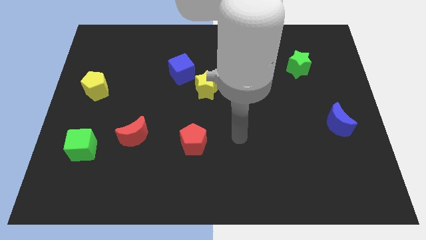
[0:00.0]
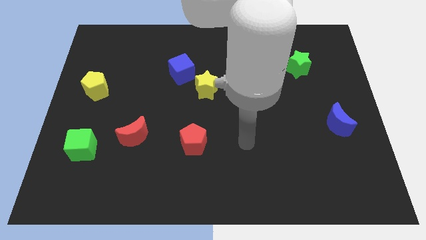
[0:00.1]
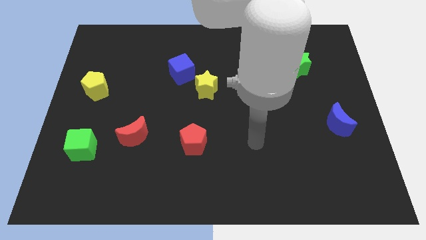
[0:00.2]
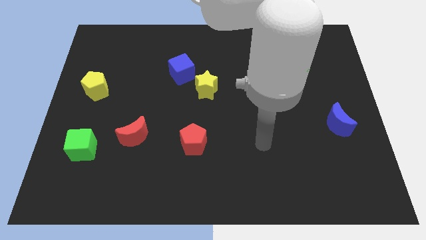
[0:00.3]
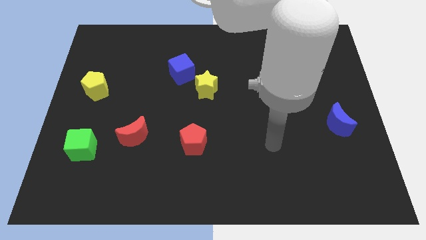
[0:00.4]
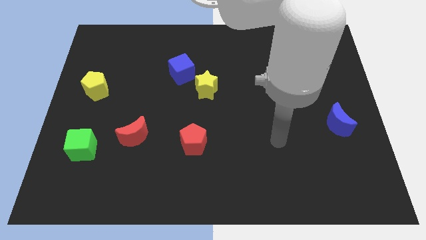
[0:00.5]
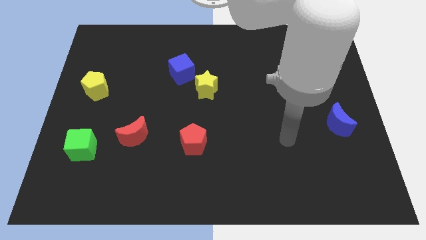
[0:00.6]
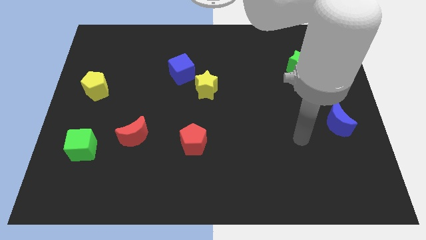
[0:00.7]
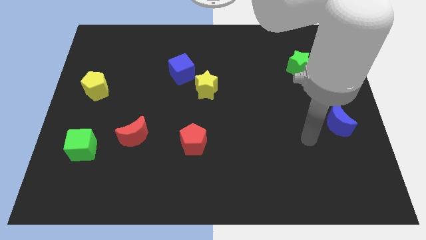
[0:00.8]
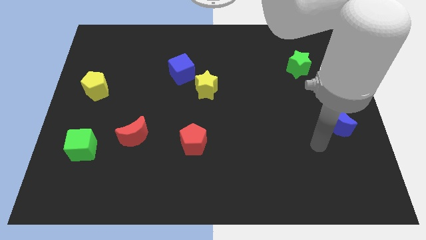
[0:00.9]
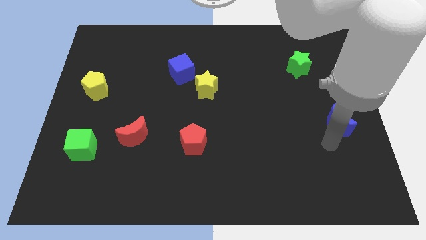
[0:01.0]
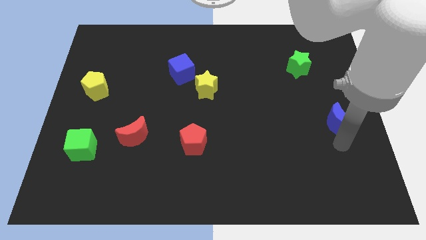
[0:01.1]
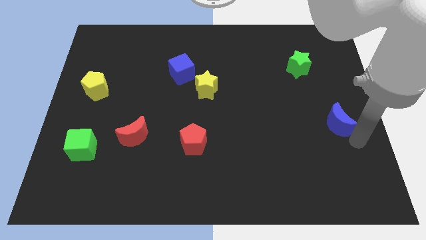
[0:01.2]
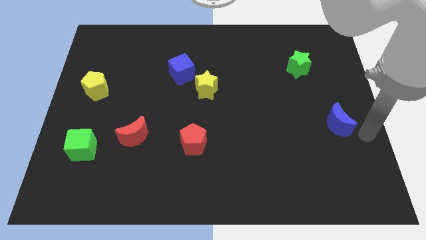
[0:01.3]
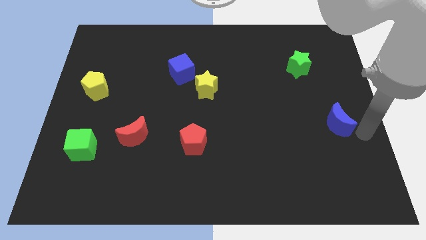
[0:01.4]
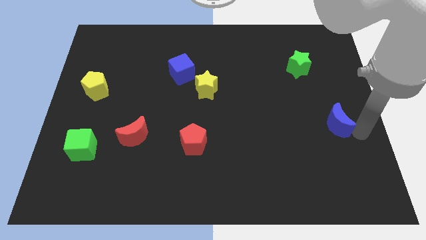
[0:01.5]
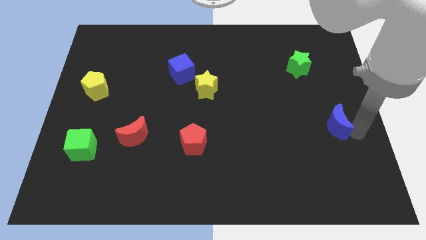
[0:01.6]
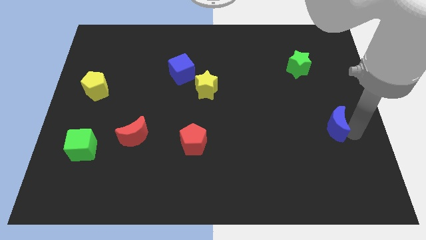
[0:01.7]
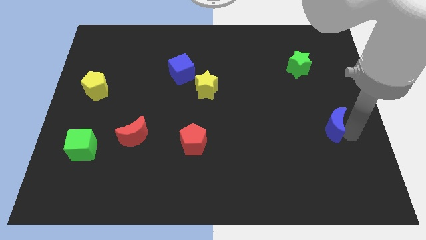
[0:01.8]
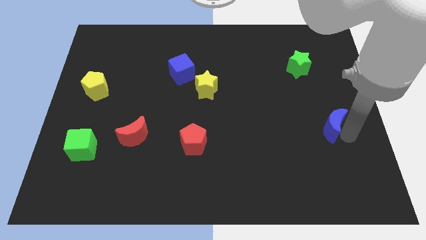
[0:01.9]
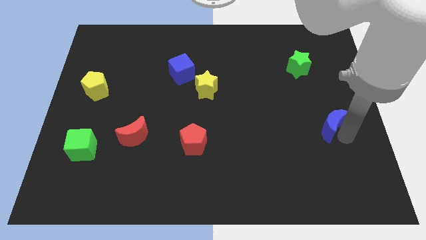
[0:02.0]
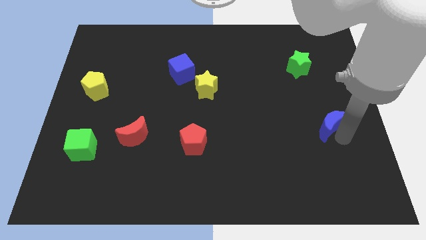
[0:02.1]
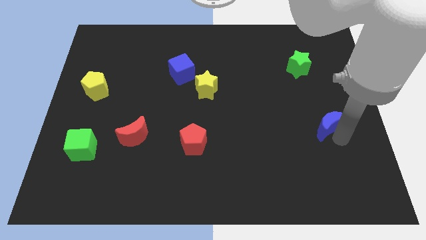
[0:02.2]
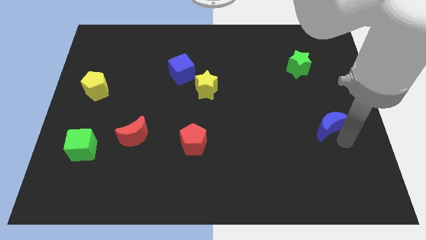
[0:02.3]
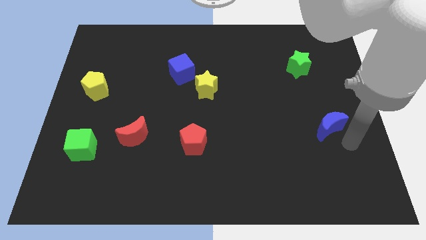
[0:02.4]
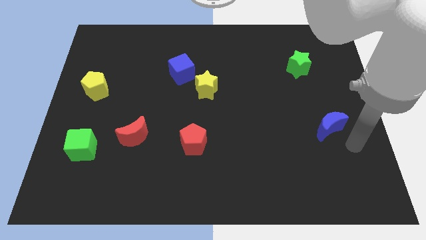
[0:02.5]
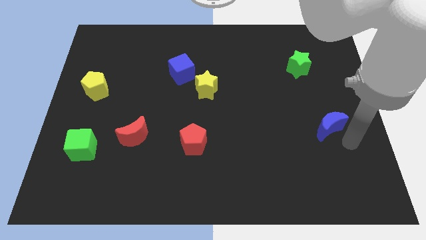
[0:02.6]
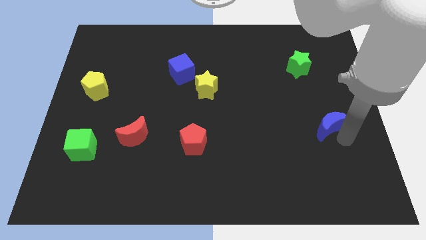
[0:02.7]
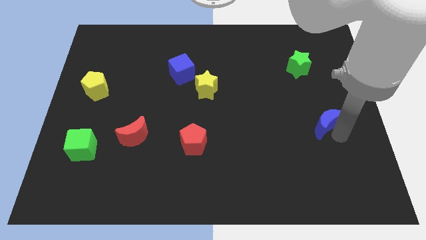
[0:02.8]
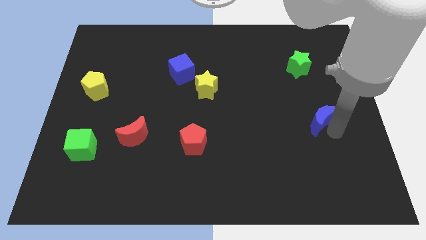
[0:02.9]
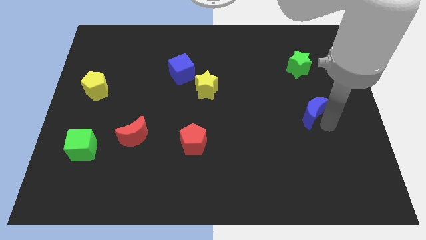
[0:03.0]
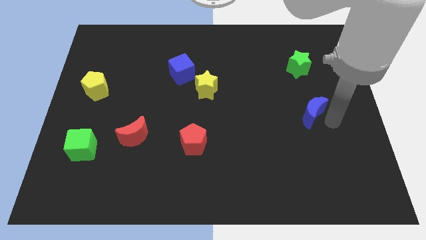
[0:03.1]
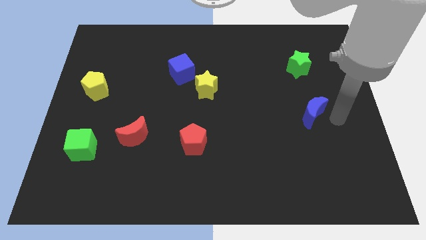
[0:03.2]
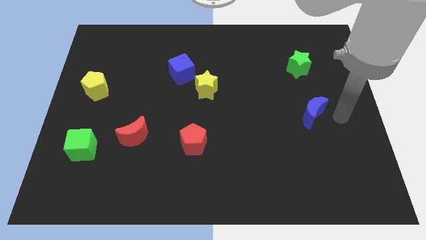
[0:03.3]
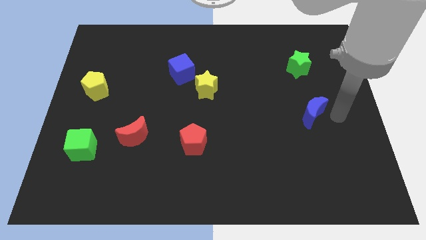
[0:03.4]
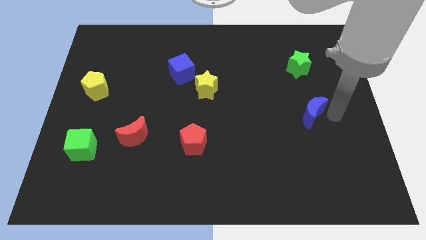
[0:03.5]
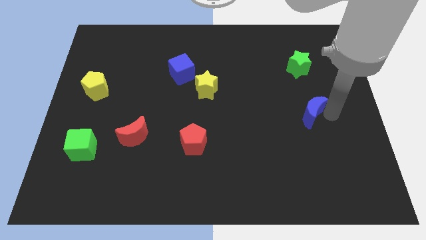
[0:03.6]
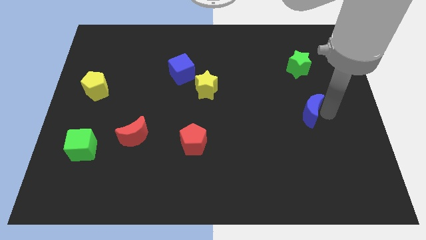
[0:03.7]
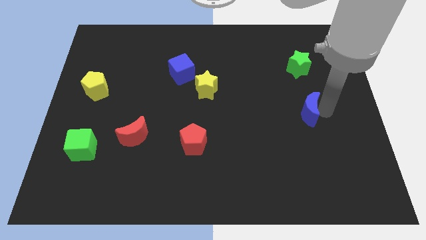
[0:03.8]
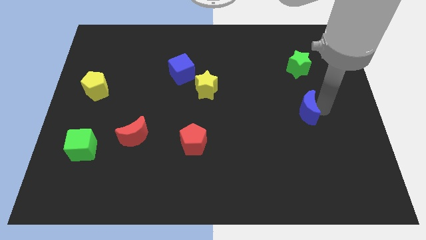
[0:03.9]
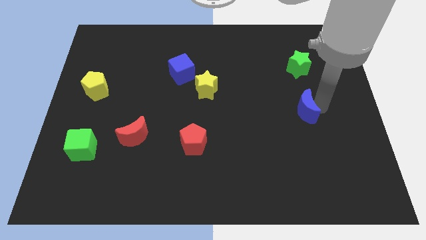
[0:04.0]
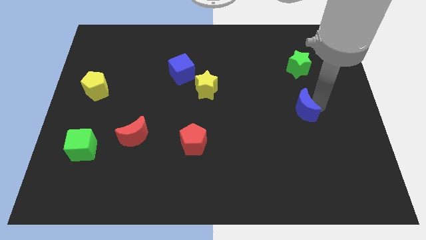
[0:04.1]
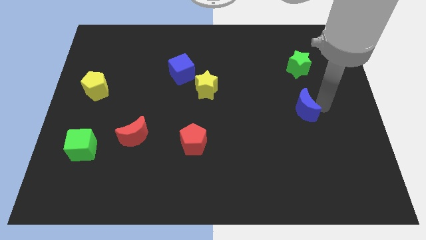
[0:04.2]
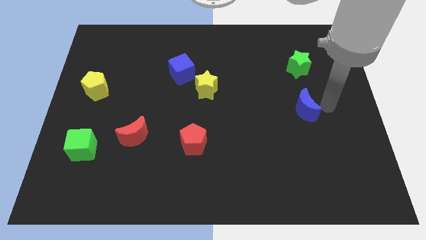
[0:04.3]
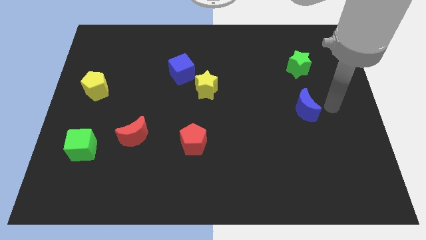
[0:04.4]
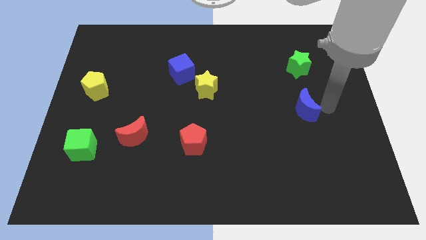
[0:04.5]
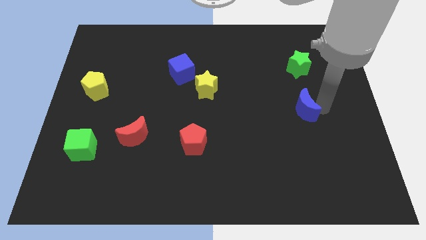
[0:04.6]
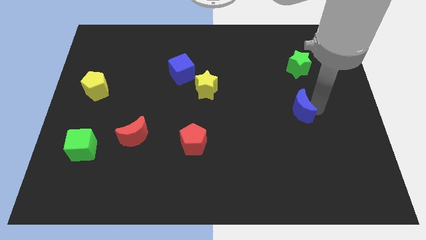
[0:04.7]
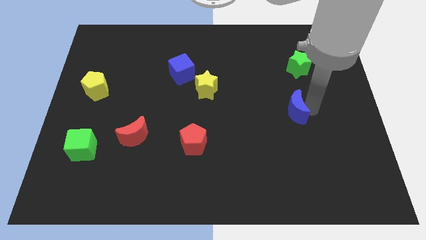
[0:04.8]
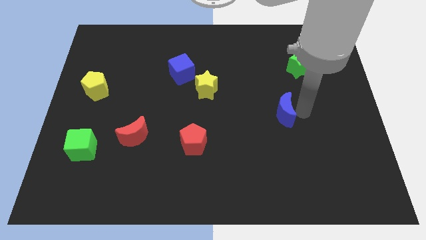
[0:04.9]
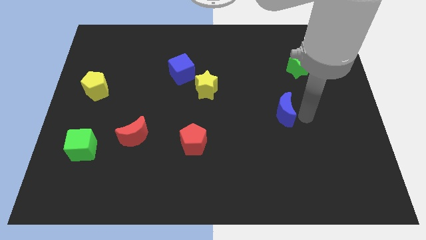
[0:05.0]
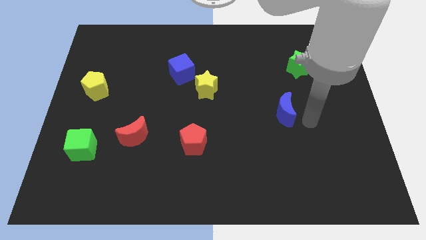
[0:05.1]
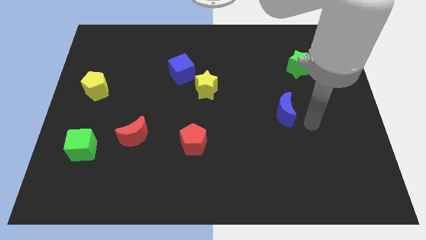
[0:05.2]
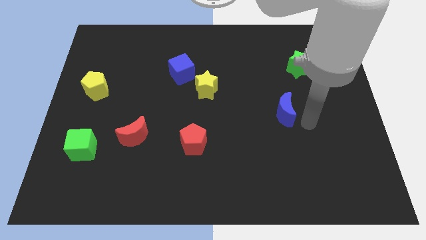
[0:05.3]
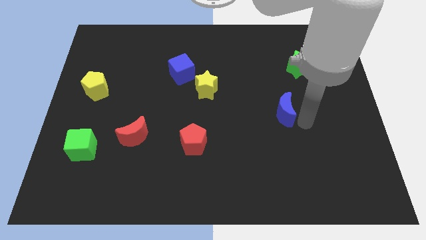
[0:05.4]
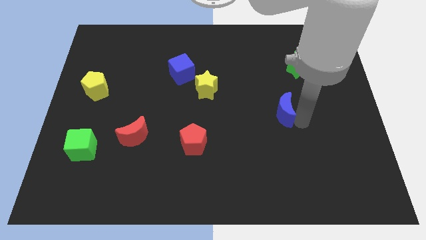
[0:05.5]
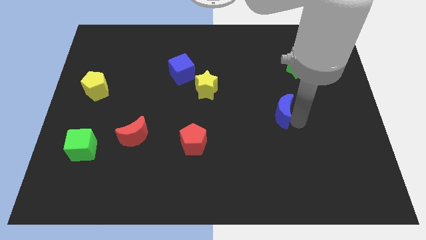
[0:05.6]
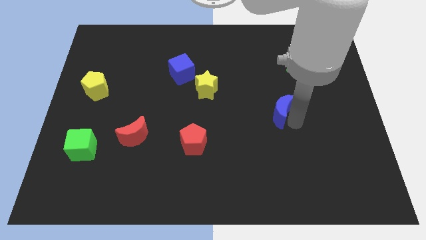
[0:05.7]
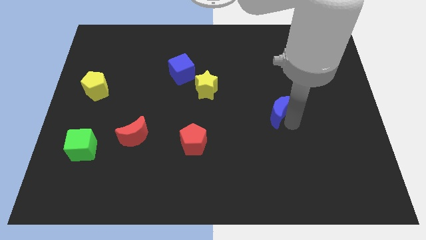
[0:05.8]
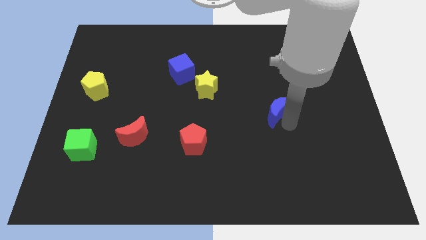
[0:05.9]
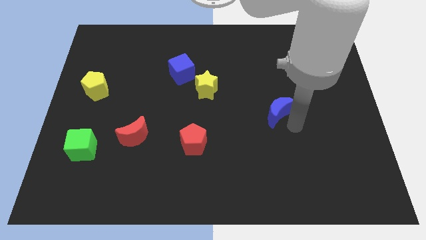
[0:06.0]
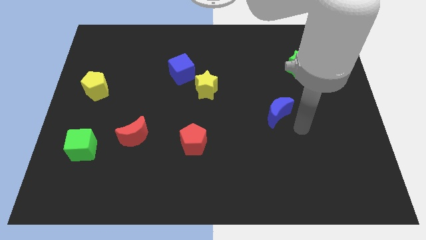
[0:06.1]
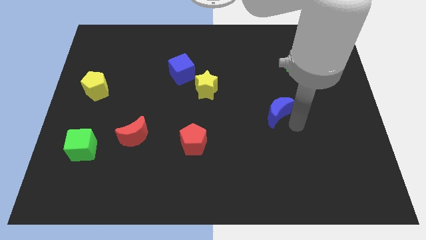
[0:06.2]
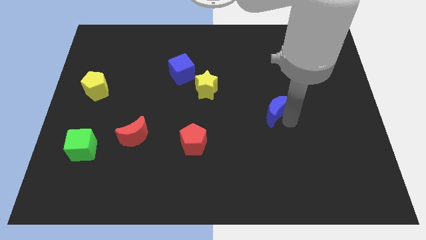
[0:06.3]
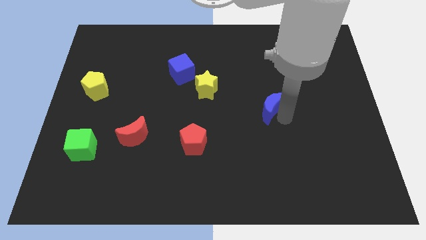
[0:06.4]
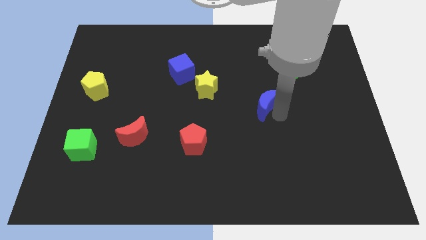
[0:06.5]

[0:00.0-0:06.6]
put the blue moon to the middle
